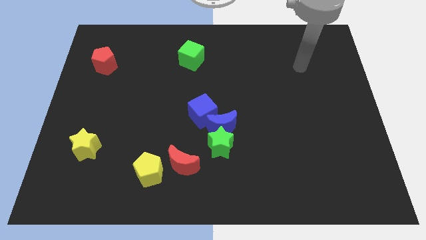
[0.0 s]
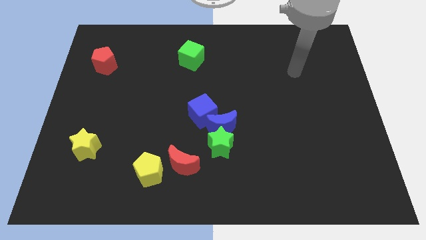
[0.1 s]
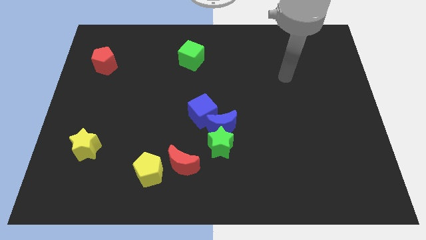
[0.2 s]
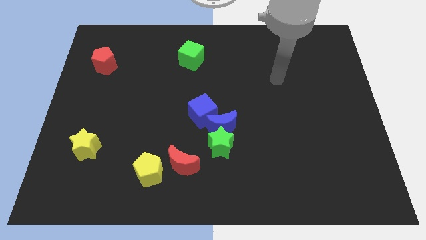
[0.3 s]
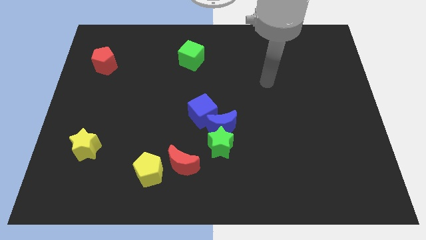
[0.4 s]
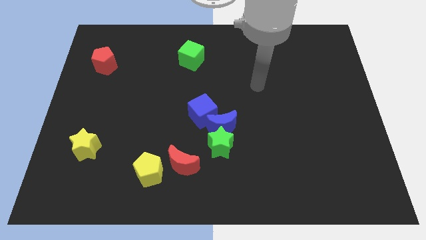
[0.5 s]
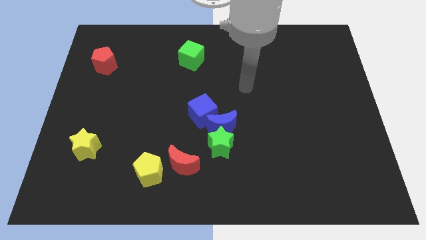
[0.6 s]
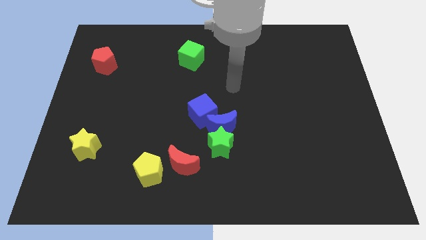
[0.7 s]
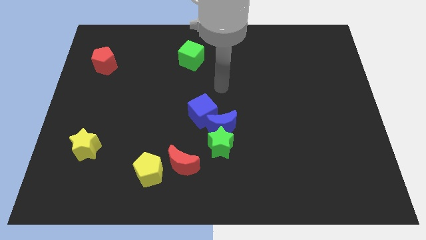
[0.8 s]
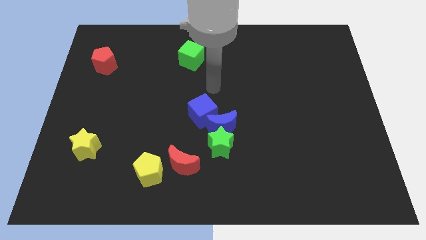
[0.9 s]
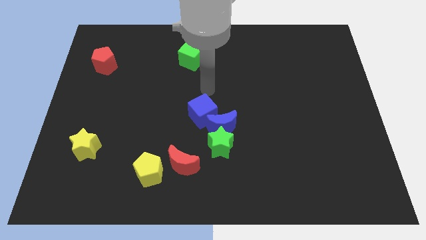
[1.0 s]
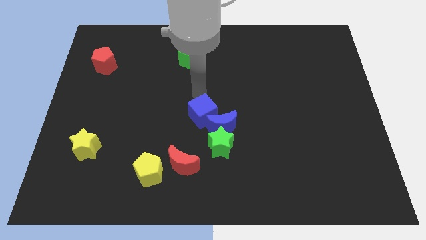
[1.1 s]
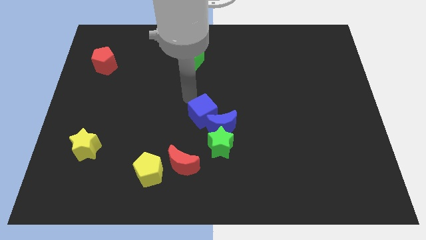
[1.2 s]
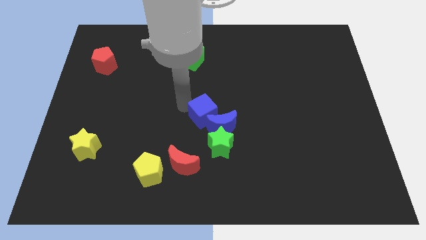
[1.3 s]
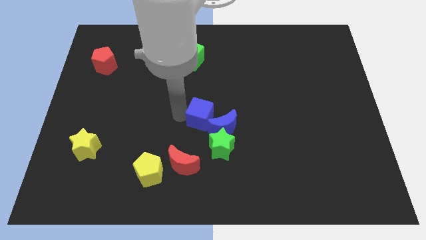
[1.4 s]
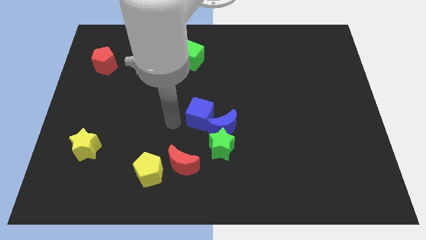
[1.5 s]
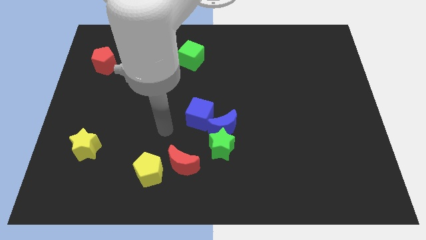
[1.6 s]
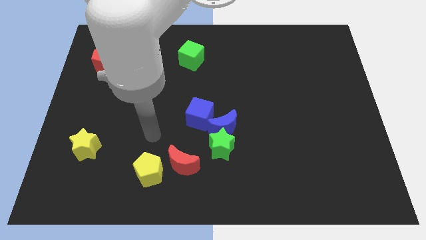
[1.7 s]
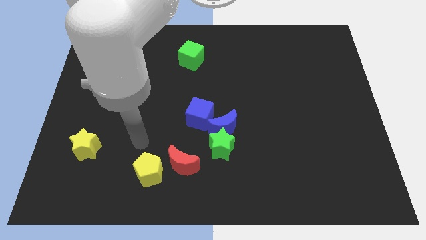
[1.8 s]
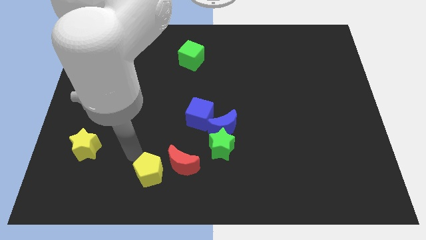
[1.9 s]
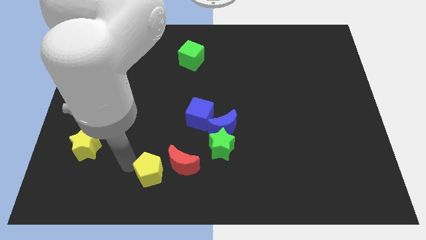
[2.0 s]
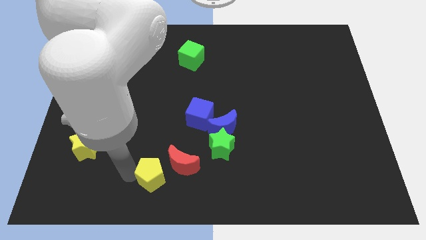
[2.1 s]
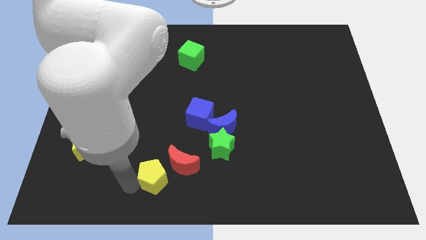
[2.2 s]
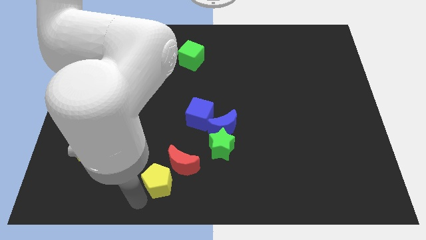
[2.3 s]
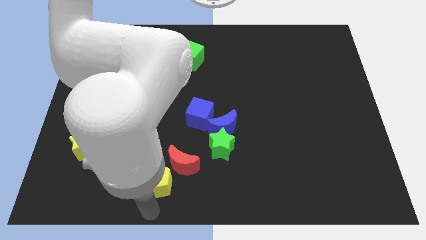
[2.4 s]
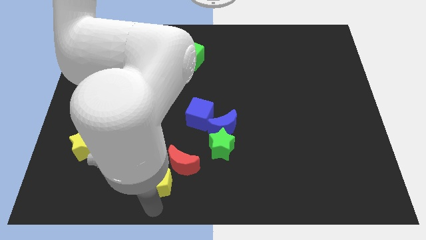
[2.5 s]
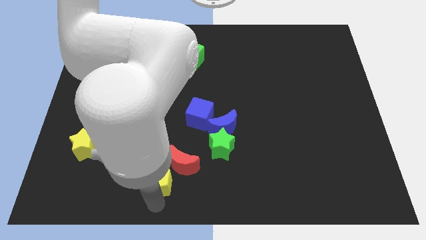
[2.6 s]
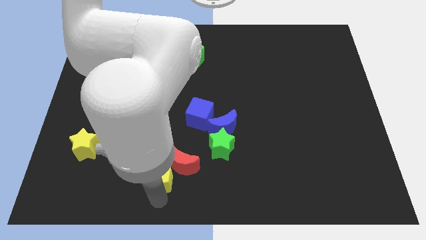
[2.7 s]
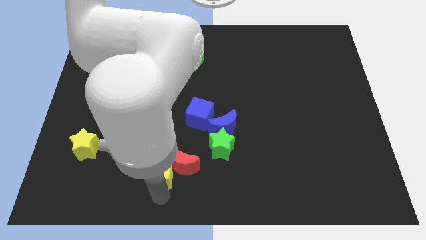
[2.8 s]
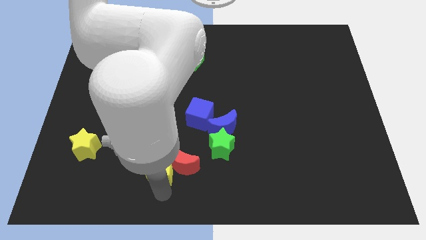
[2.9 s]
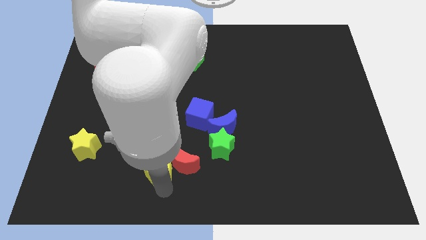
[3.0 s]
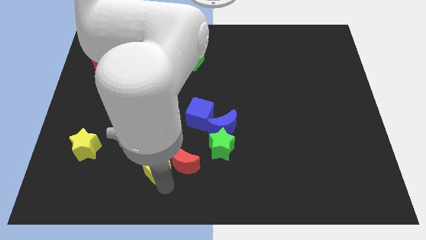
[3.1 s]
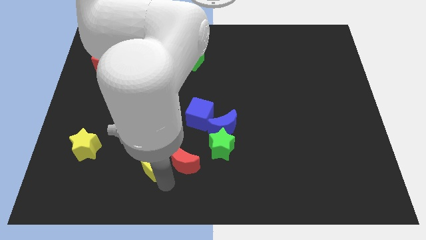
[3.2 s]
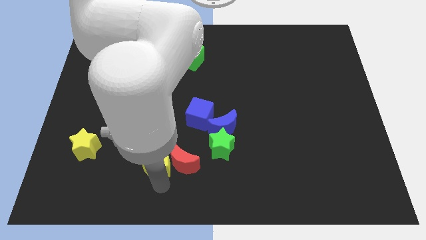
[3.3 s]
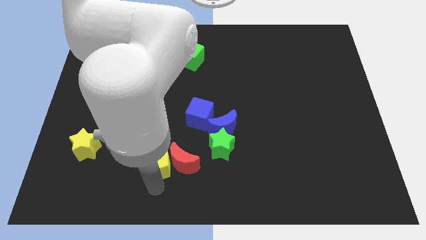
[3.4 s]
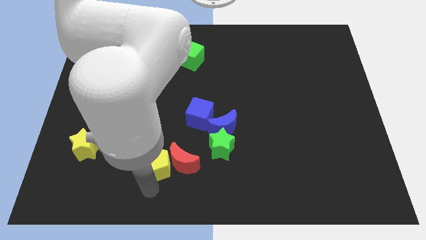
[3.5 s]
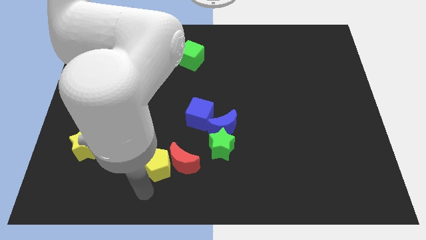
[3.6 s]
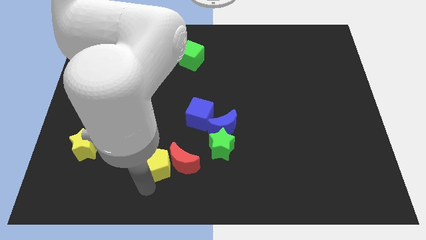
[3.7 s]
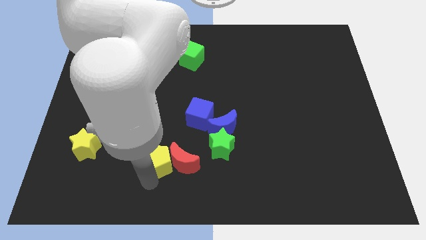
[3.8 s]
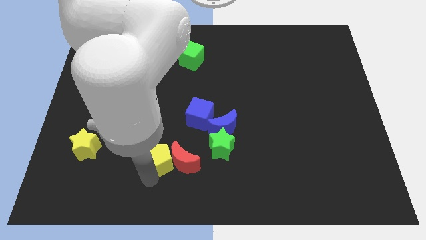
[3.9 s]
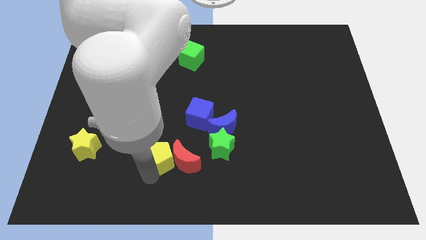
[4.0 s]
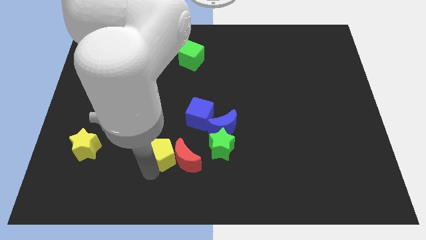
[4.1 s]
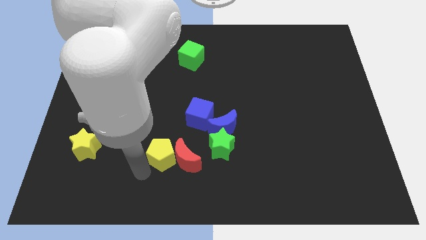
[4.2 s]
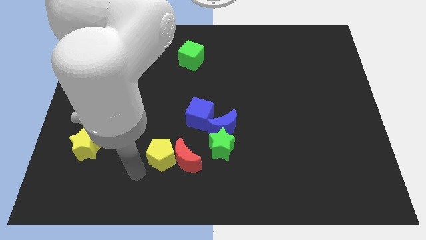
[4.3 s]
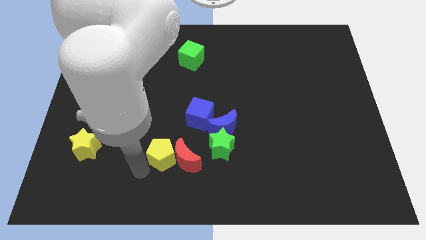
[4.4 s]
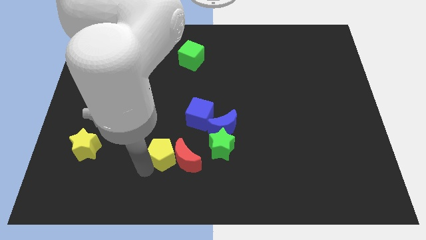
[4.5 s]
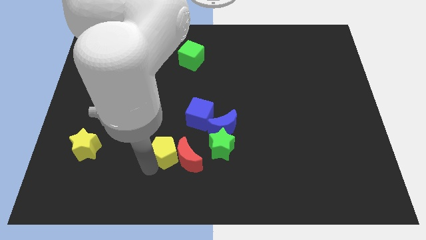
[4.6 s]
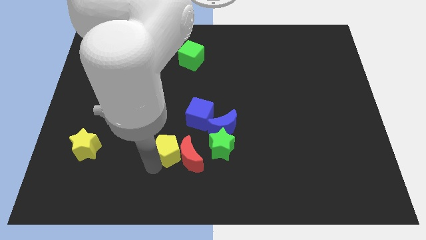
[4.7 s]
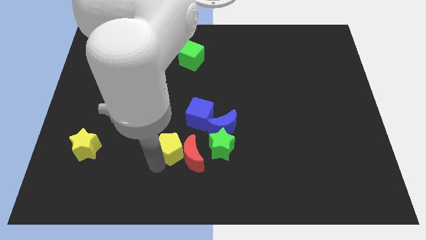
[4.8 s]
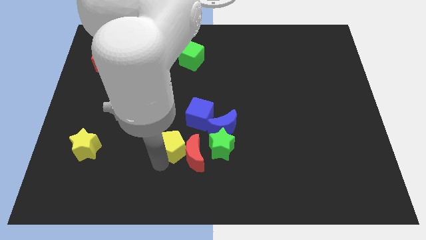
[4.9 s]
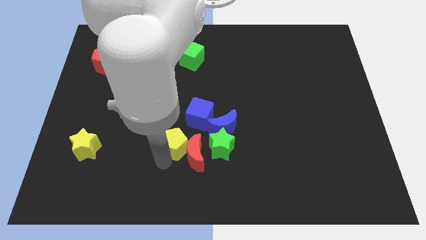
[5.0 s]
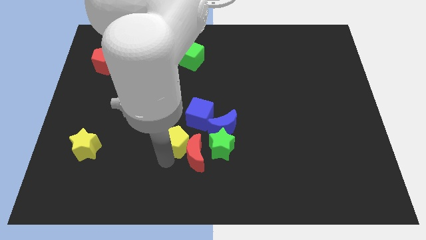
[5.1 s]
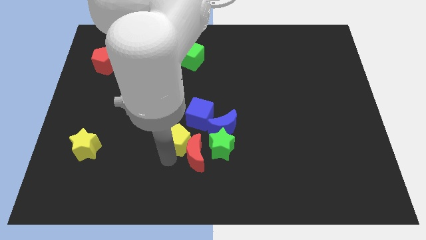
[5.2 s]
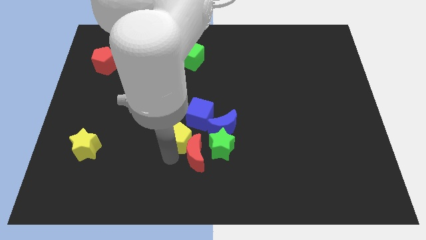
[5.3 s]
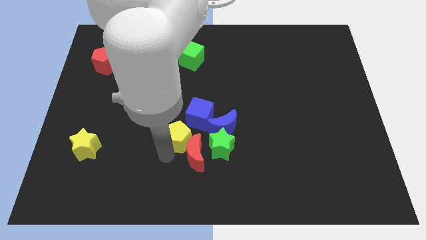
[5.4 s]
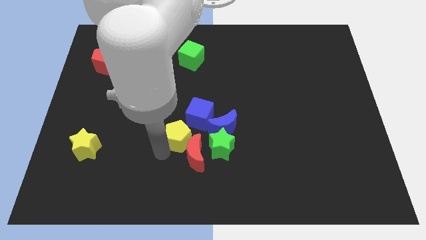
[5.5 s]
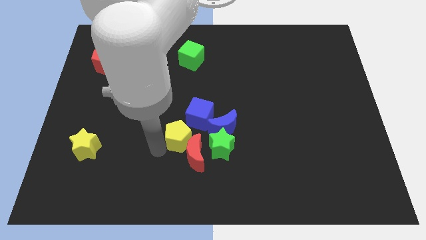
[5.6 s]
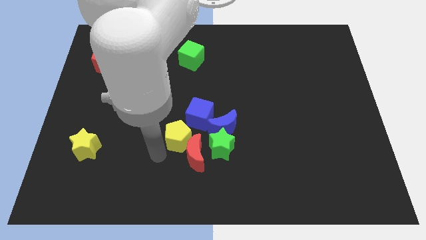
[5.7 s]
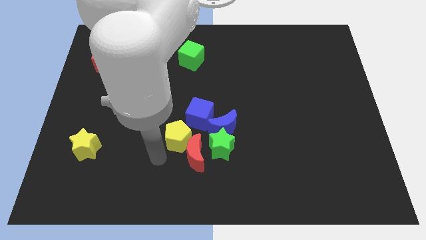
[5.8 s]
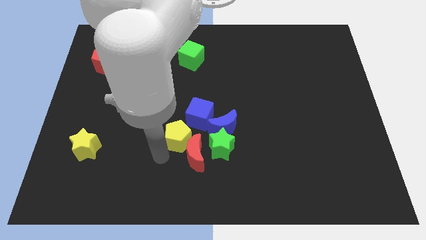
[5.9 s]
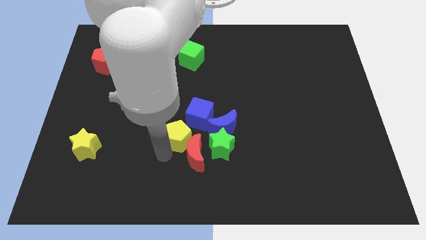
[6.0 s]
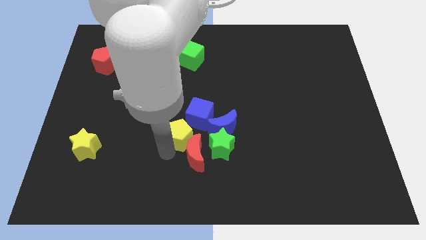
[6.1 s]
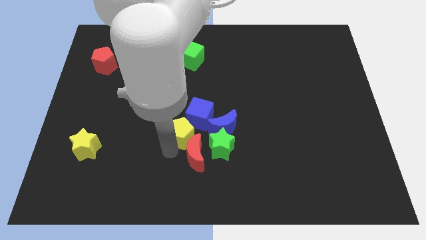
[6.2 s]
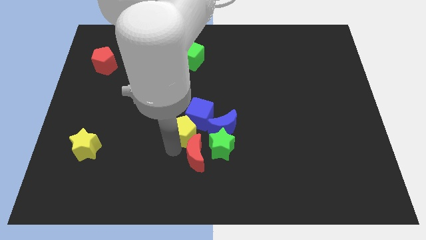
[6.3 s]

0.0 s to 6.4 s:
slide the yellow pentagon next to the blue cube
